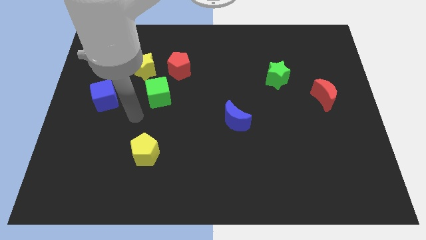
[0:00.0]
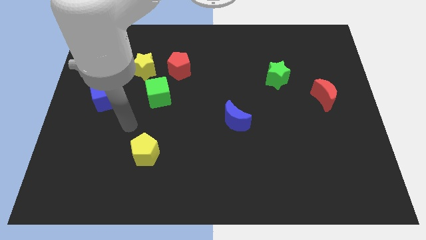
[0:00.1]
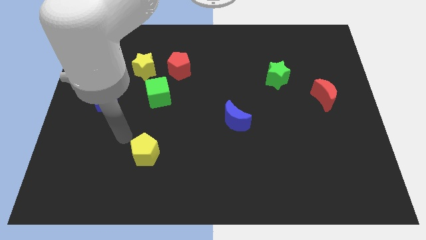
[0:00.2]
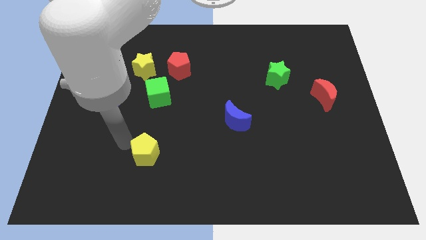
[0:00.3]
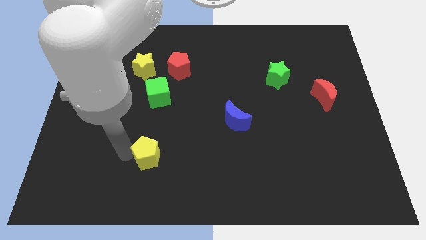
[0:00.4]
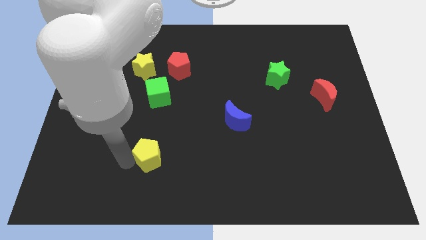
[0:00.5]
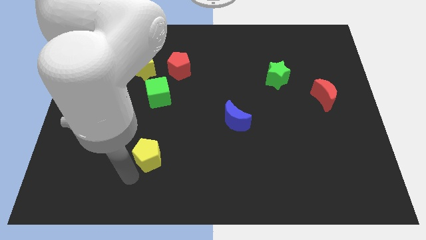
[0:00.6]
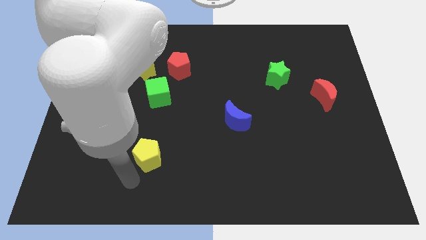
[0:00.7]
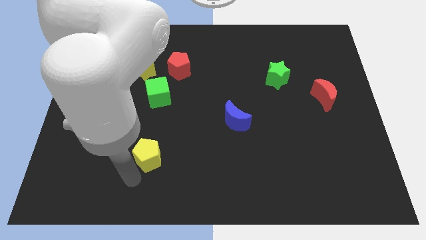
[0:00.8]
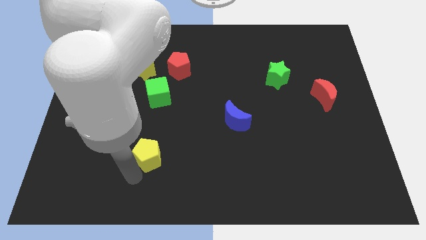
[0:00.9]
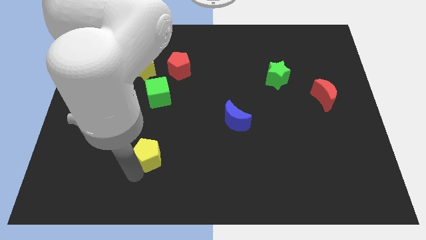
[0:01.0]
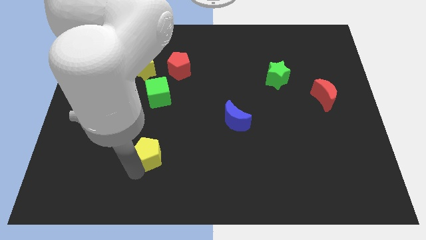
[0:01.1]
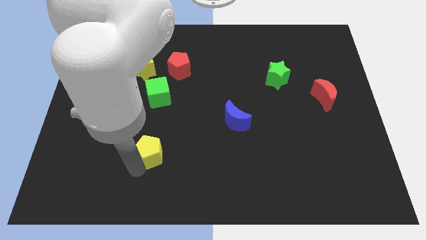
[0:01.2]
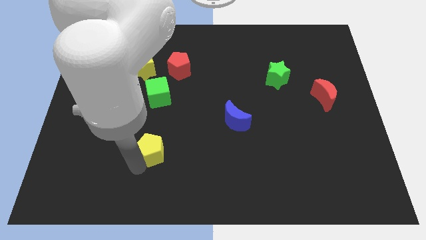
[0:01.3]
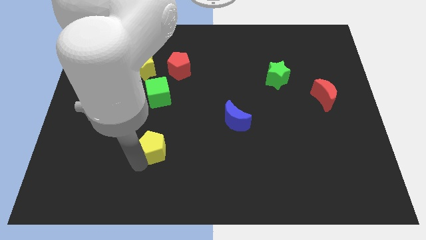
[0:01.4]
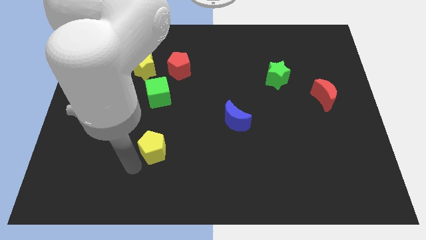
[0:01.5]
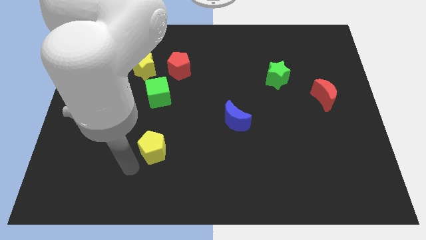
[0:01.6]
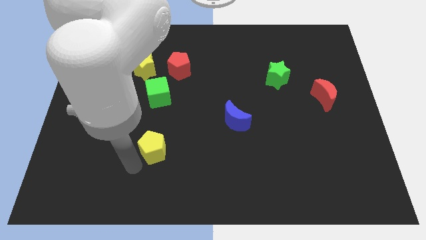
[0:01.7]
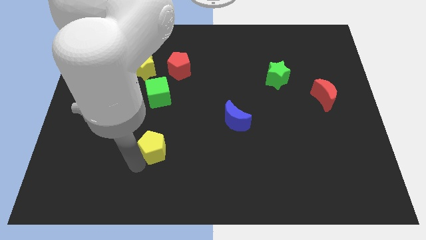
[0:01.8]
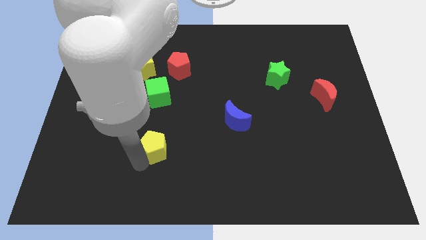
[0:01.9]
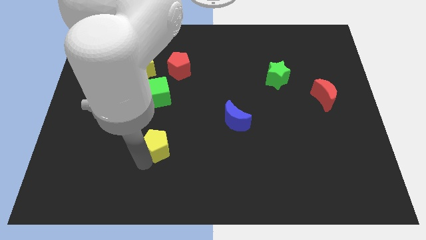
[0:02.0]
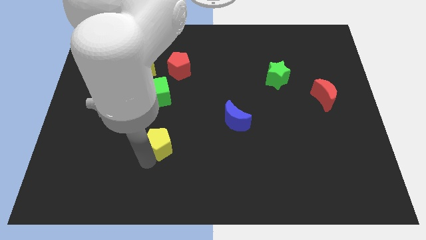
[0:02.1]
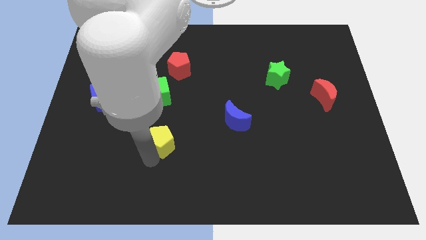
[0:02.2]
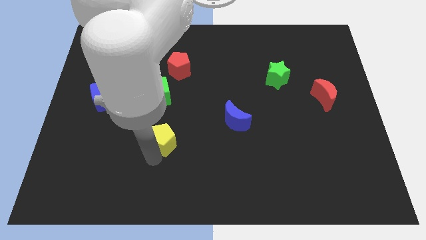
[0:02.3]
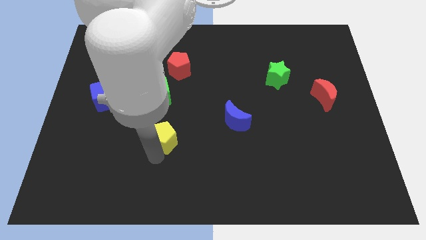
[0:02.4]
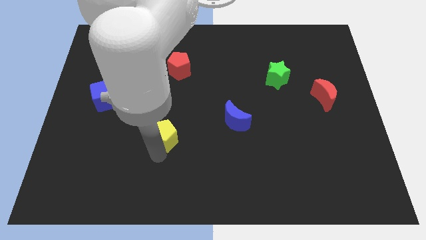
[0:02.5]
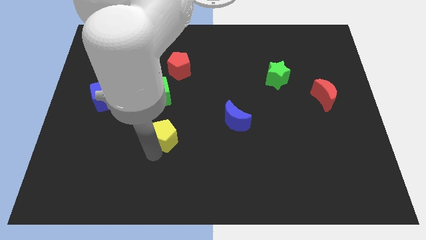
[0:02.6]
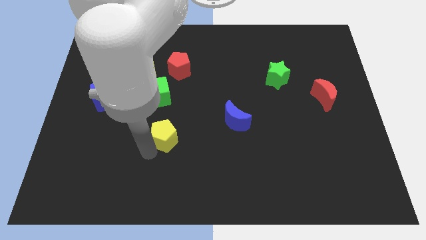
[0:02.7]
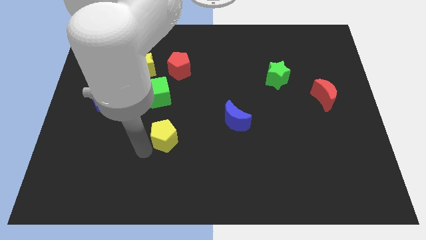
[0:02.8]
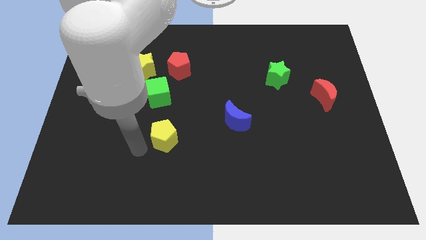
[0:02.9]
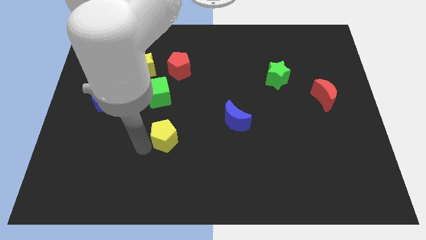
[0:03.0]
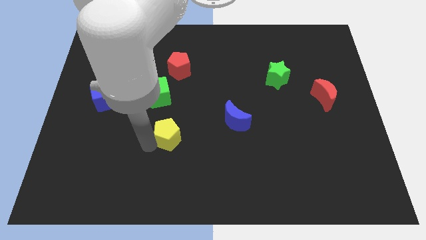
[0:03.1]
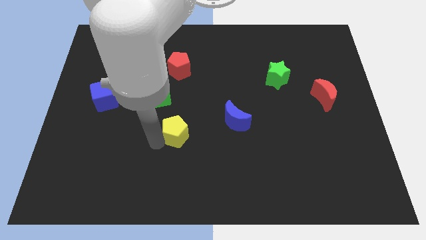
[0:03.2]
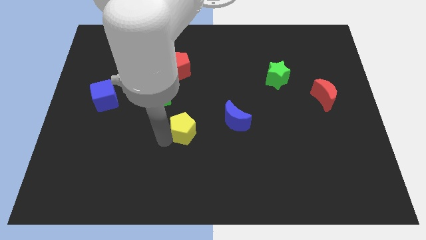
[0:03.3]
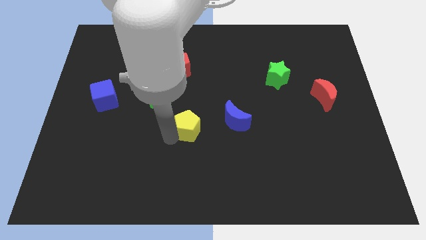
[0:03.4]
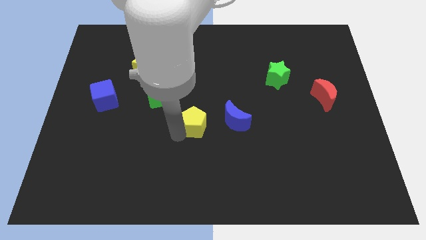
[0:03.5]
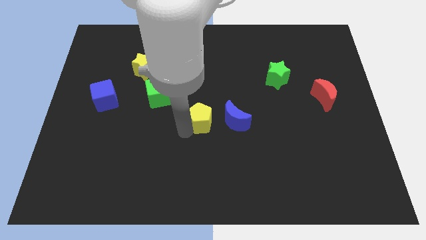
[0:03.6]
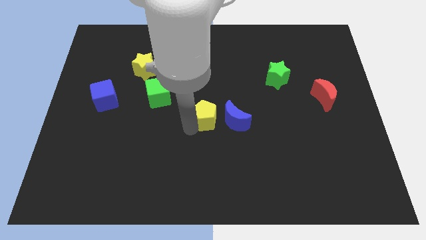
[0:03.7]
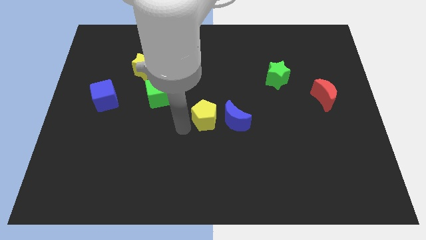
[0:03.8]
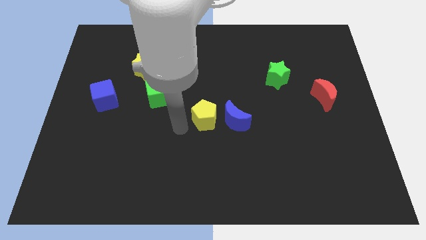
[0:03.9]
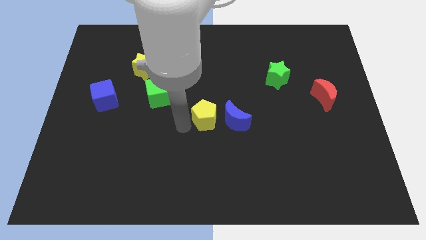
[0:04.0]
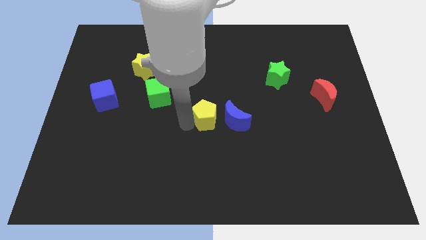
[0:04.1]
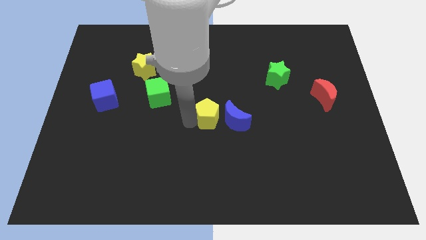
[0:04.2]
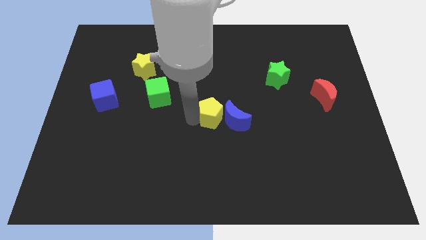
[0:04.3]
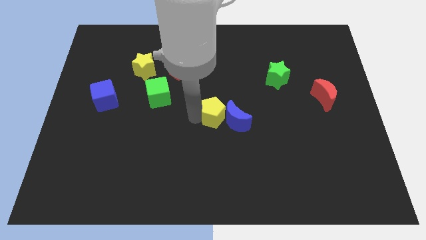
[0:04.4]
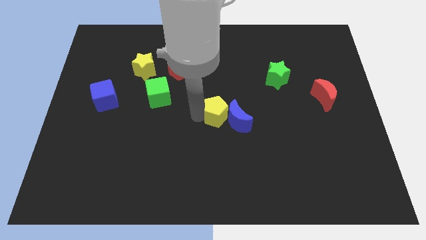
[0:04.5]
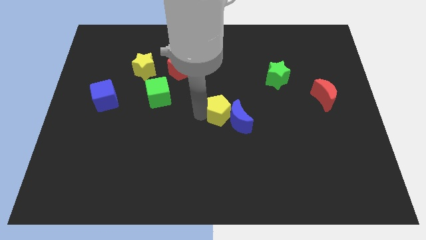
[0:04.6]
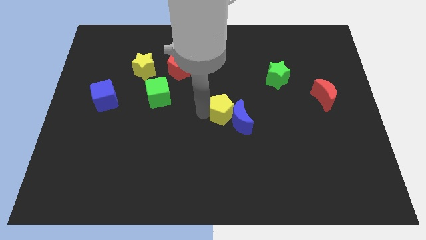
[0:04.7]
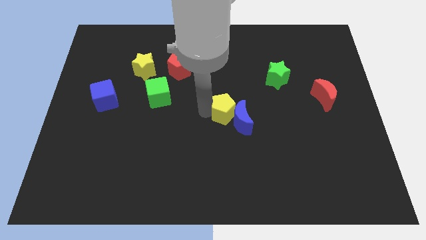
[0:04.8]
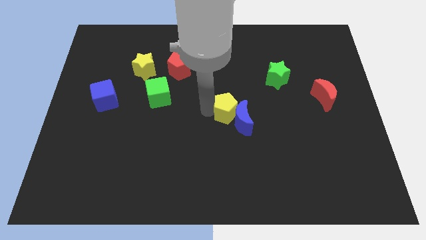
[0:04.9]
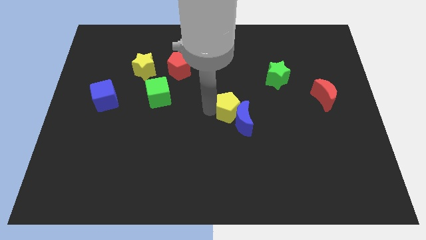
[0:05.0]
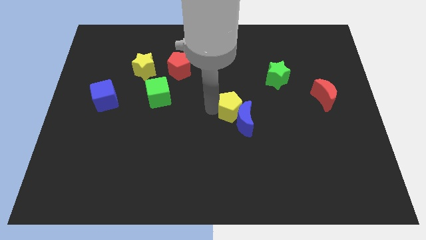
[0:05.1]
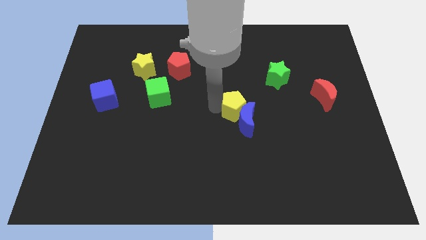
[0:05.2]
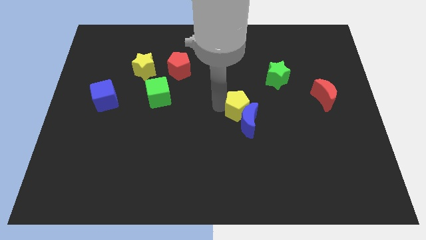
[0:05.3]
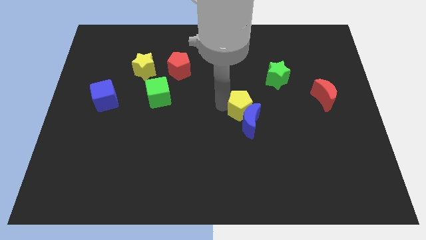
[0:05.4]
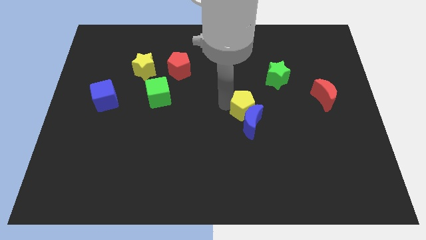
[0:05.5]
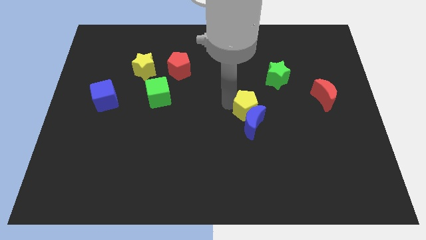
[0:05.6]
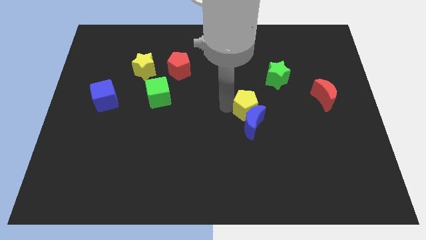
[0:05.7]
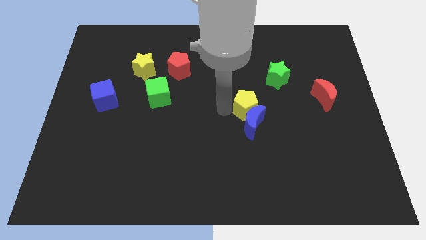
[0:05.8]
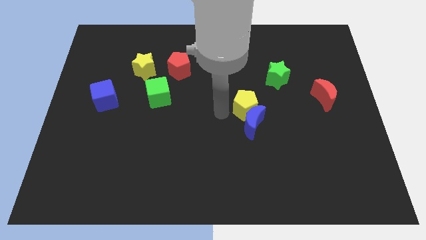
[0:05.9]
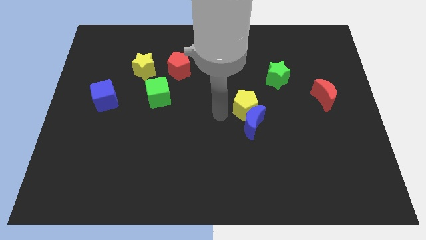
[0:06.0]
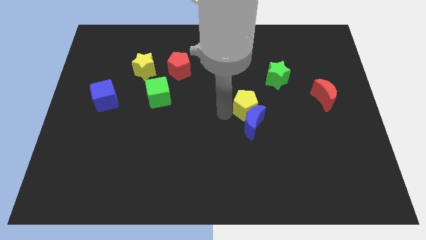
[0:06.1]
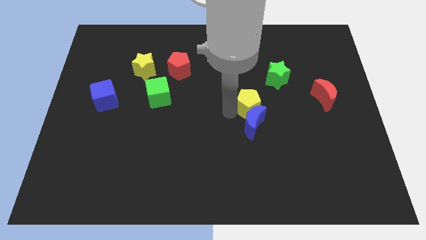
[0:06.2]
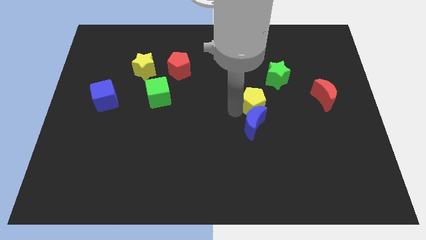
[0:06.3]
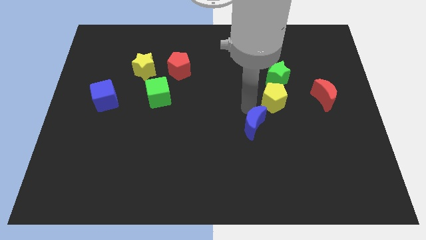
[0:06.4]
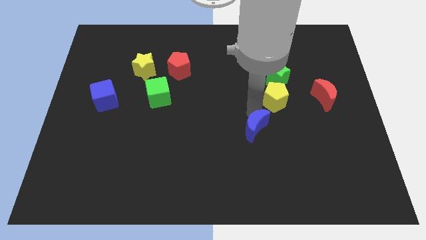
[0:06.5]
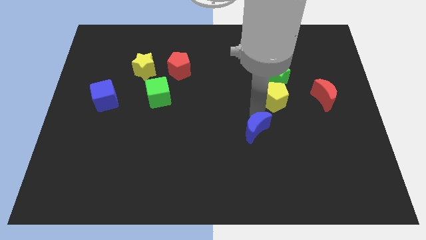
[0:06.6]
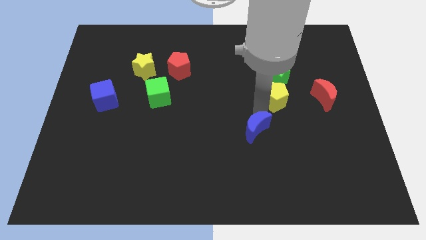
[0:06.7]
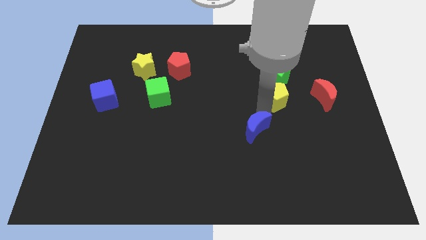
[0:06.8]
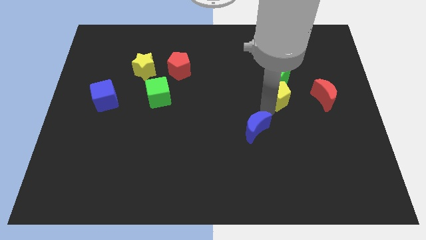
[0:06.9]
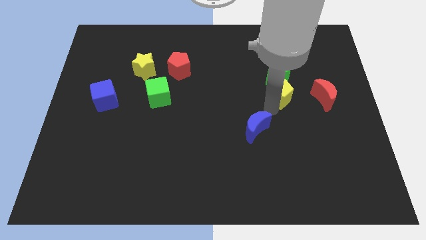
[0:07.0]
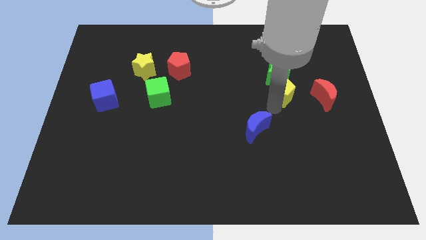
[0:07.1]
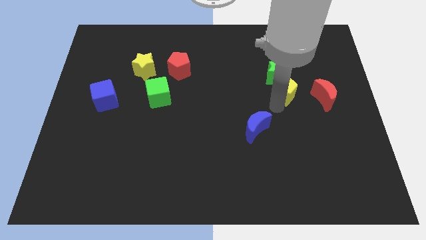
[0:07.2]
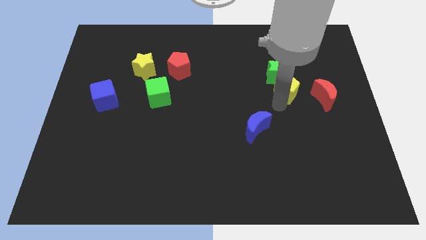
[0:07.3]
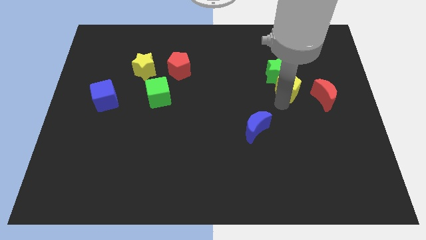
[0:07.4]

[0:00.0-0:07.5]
push the yellow pentagon to the top left of the red moon
